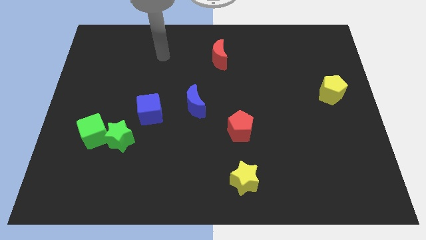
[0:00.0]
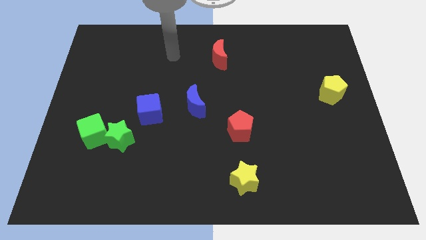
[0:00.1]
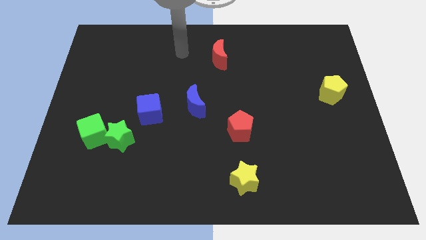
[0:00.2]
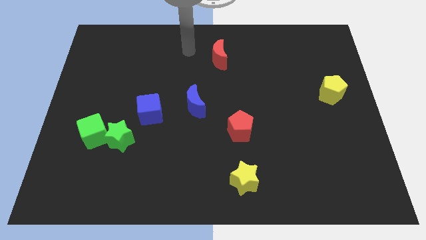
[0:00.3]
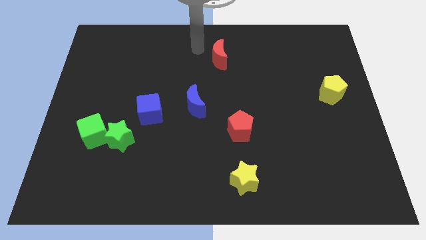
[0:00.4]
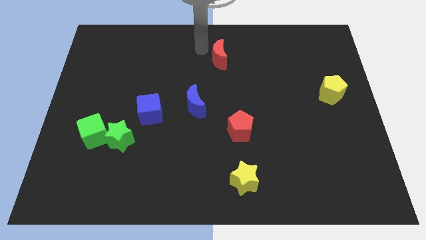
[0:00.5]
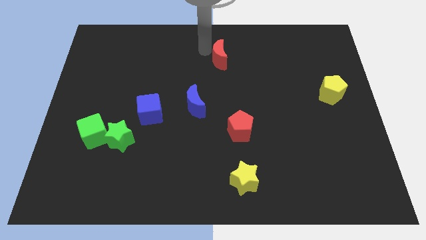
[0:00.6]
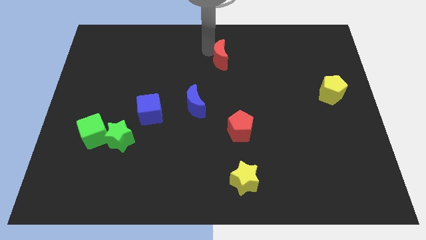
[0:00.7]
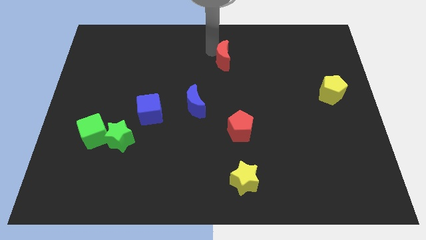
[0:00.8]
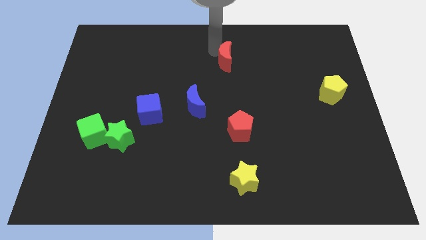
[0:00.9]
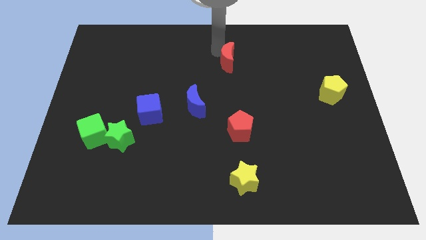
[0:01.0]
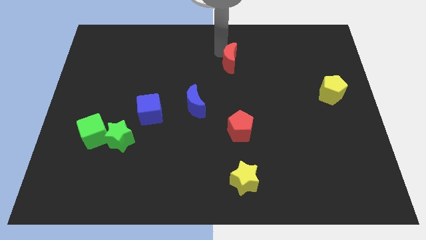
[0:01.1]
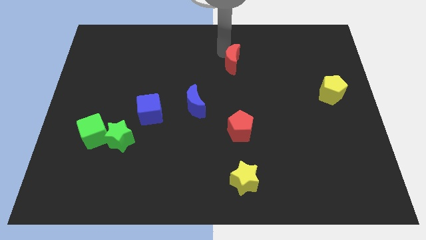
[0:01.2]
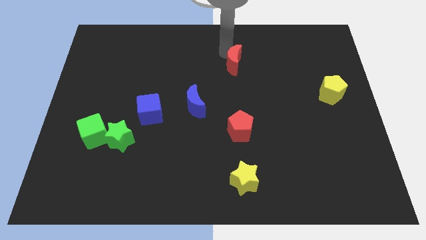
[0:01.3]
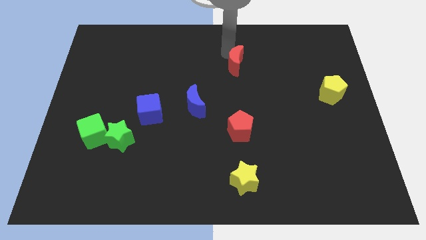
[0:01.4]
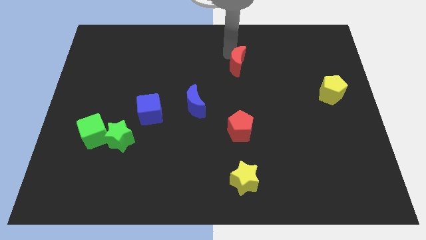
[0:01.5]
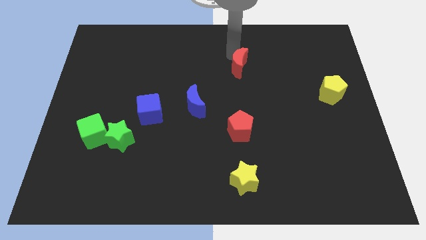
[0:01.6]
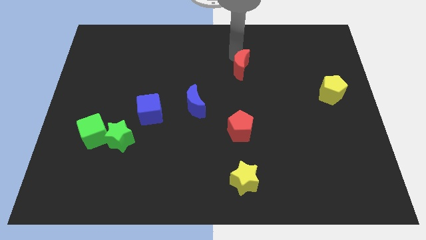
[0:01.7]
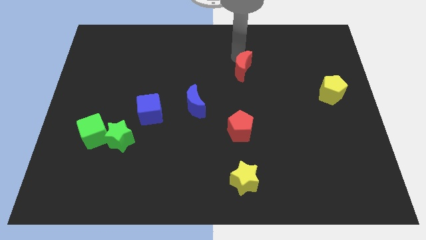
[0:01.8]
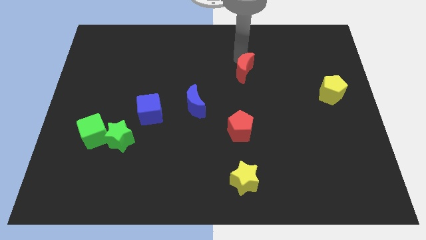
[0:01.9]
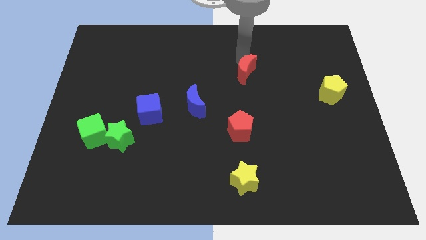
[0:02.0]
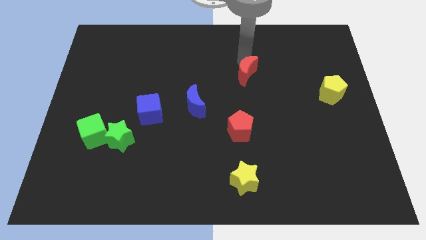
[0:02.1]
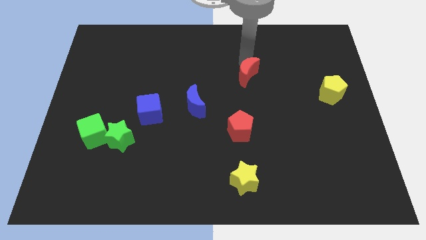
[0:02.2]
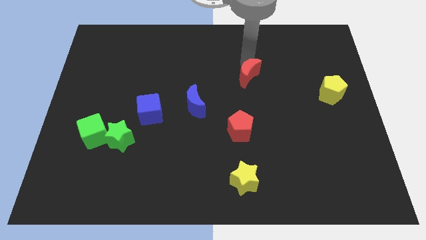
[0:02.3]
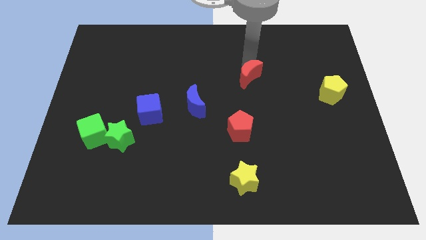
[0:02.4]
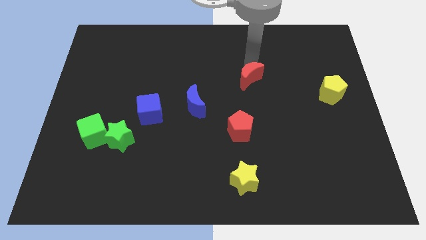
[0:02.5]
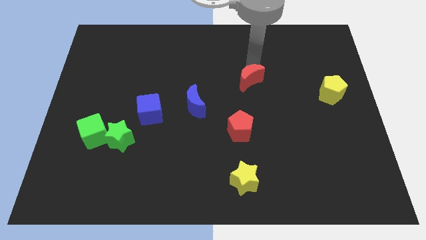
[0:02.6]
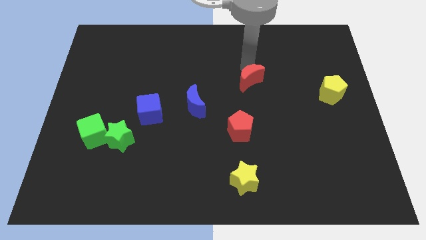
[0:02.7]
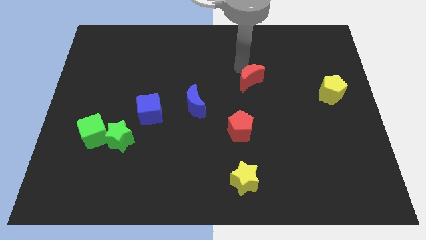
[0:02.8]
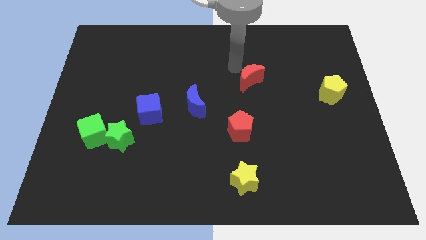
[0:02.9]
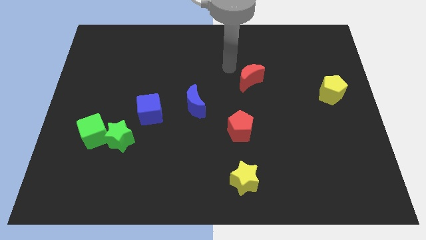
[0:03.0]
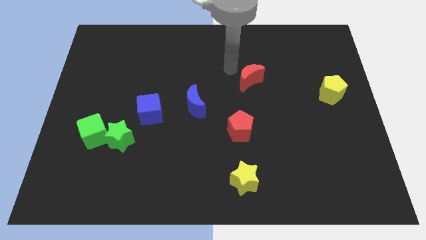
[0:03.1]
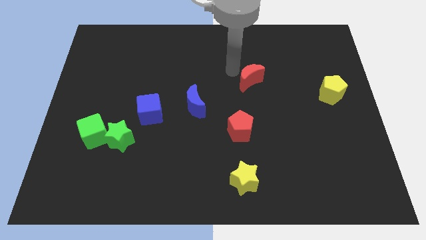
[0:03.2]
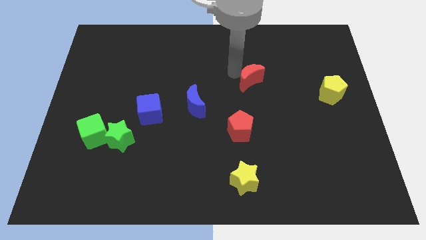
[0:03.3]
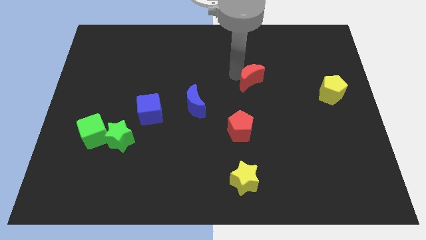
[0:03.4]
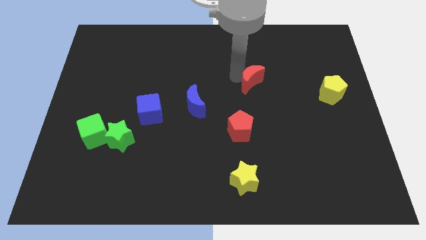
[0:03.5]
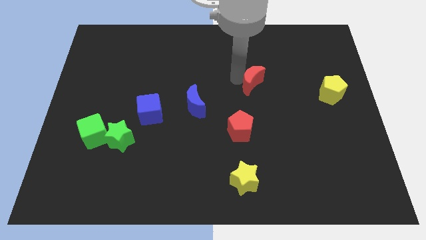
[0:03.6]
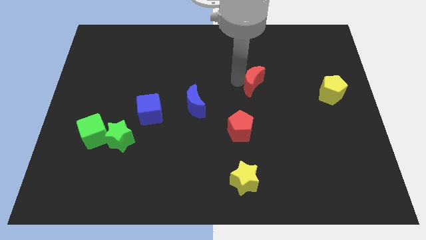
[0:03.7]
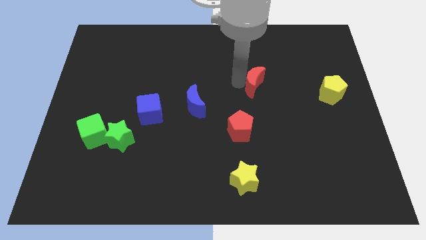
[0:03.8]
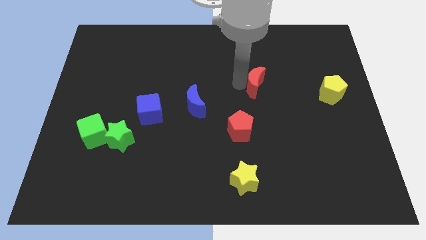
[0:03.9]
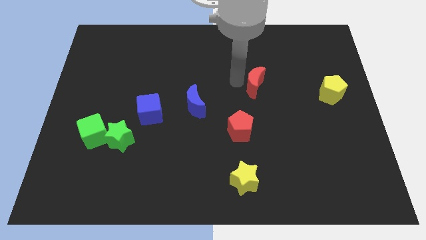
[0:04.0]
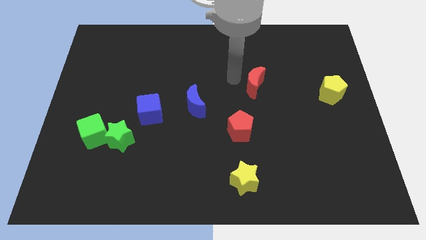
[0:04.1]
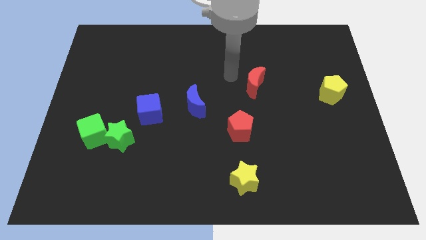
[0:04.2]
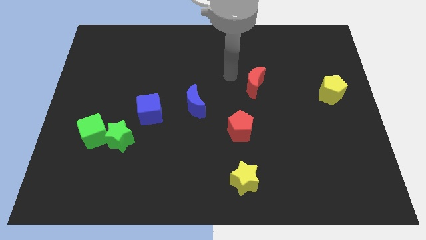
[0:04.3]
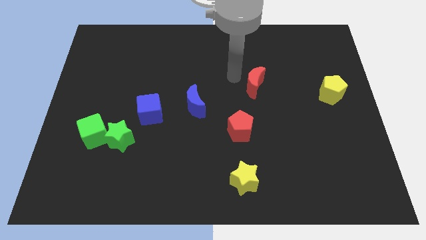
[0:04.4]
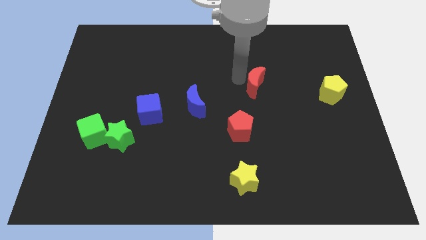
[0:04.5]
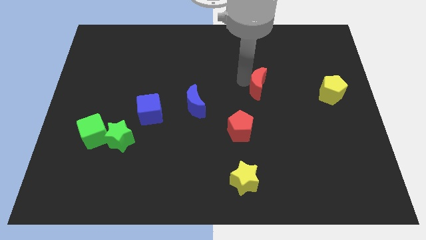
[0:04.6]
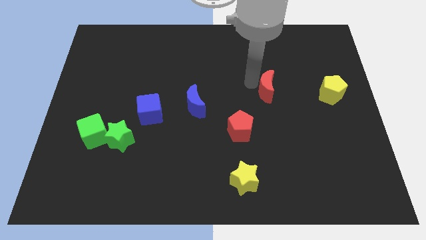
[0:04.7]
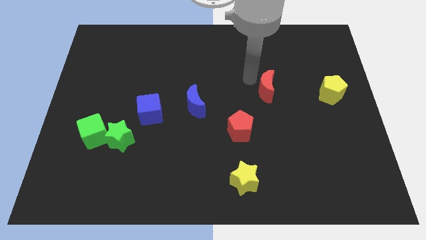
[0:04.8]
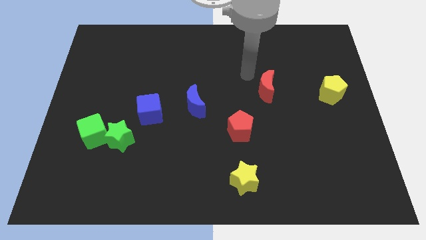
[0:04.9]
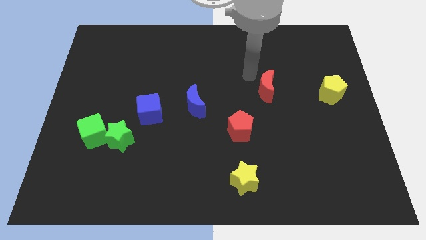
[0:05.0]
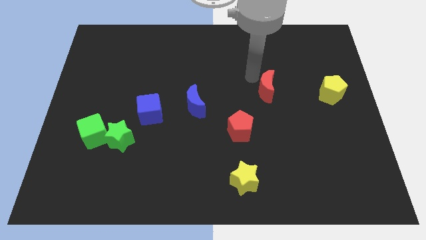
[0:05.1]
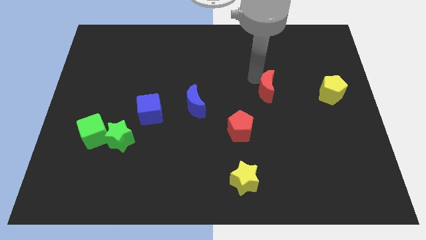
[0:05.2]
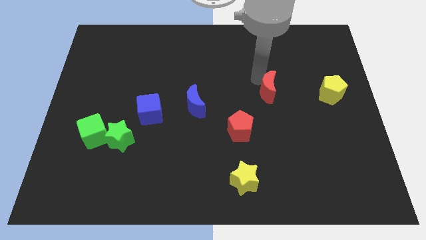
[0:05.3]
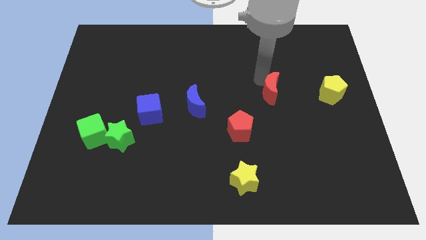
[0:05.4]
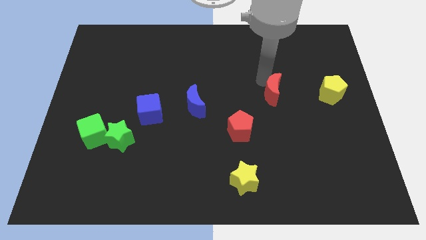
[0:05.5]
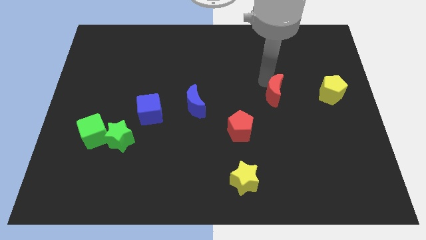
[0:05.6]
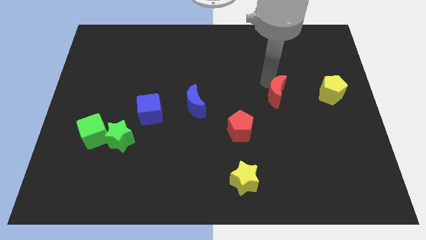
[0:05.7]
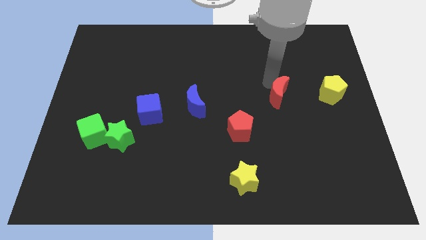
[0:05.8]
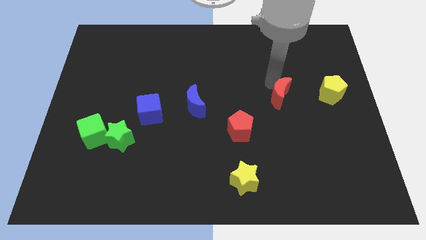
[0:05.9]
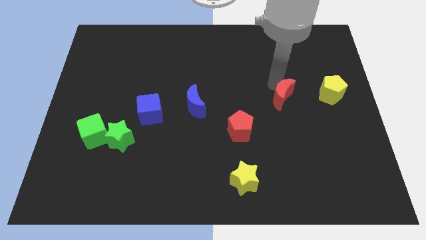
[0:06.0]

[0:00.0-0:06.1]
slide the red moon diagonally downwards and right

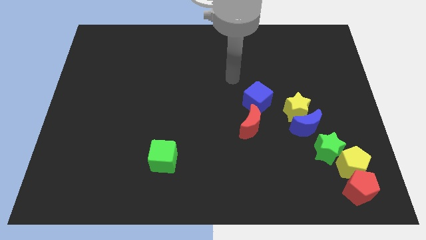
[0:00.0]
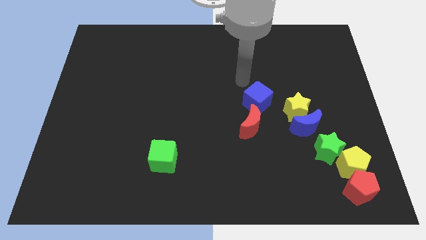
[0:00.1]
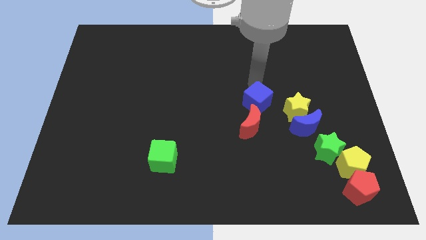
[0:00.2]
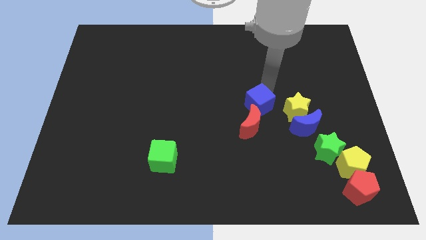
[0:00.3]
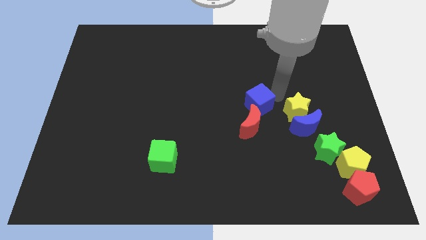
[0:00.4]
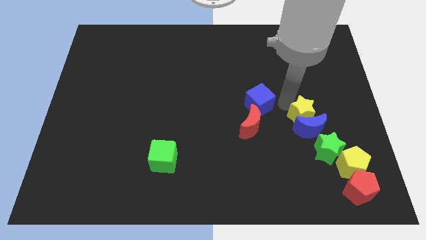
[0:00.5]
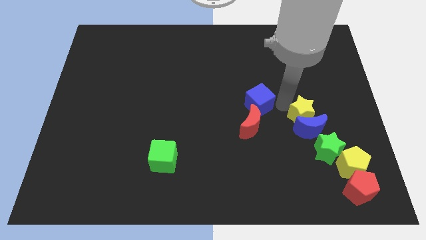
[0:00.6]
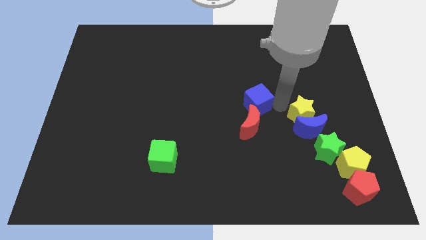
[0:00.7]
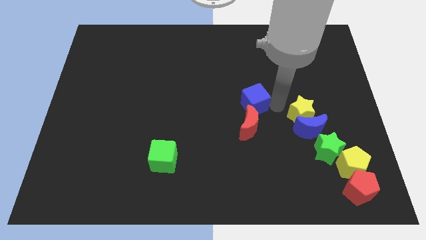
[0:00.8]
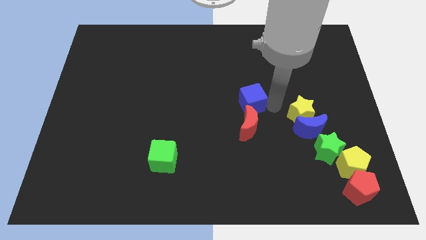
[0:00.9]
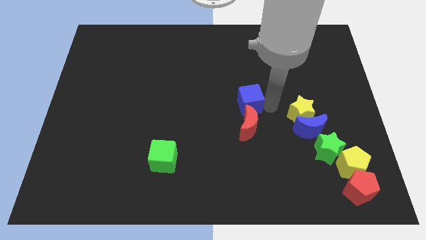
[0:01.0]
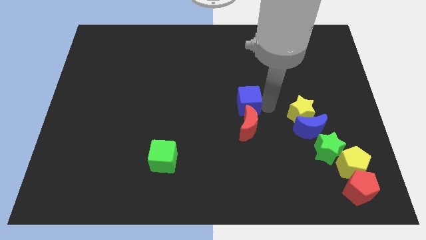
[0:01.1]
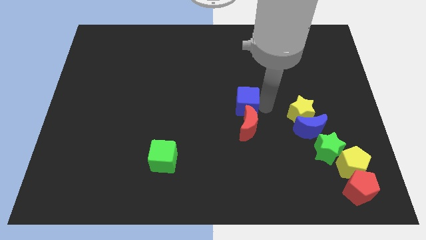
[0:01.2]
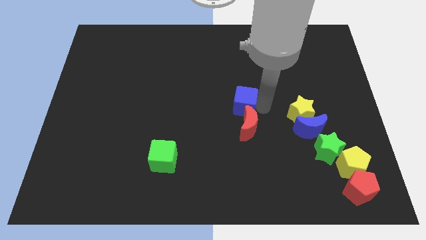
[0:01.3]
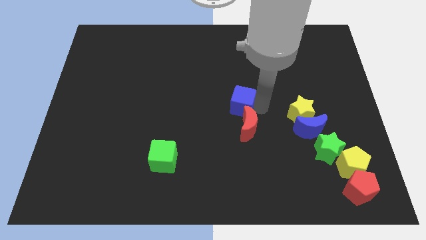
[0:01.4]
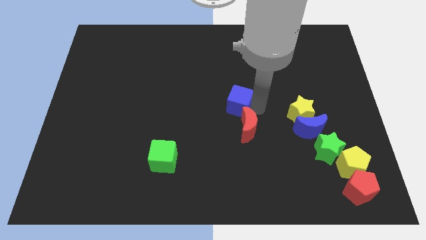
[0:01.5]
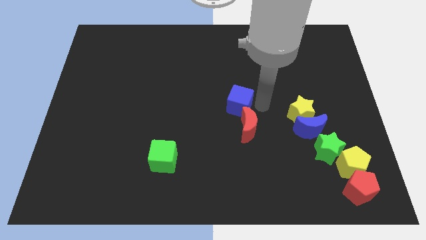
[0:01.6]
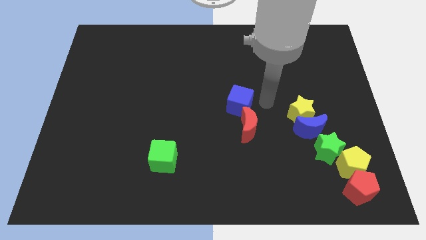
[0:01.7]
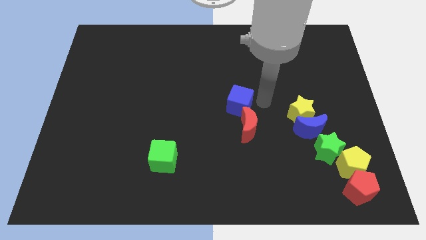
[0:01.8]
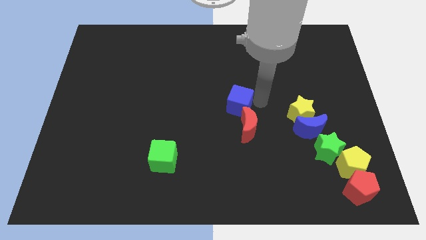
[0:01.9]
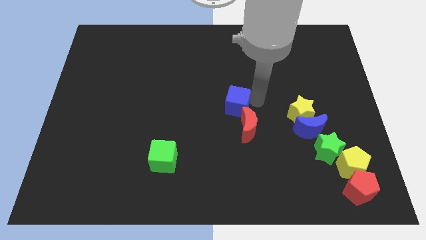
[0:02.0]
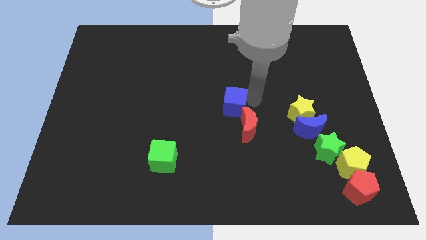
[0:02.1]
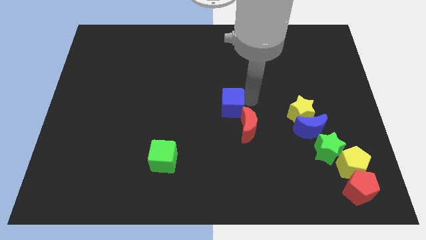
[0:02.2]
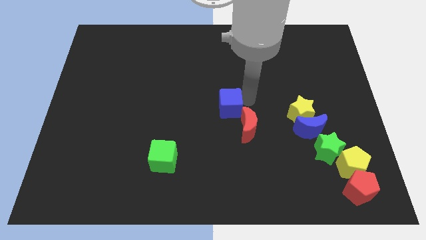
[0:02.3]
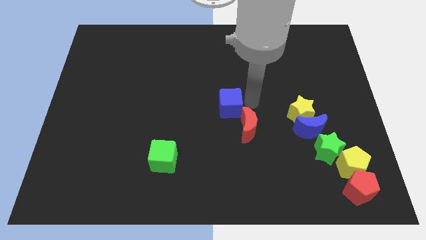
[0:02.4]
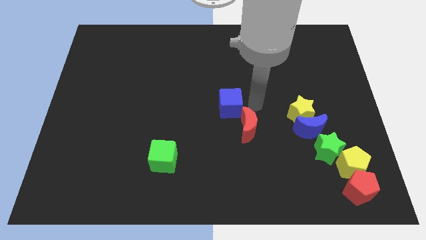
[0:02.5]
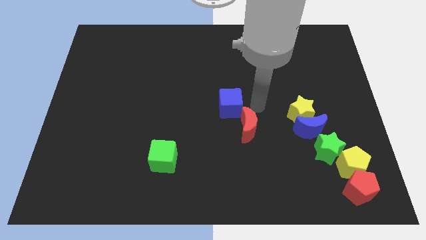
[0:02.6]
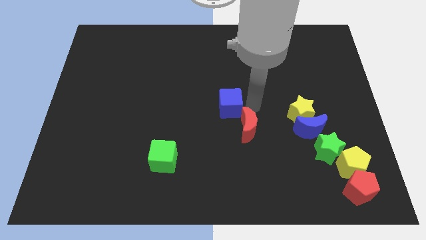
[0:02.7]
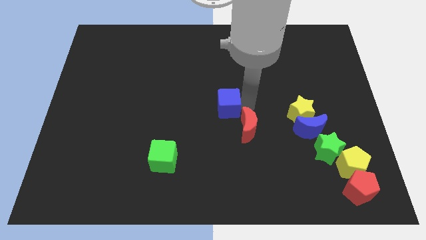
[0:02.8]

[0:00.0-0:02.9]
move the blue cube left slightly
